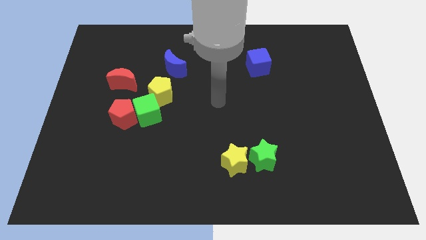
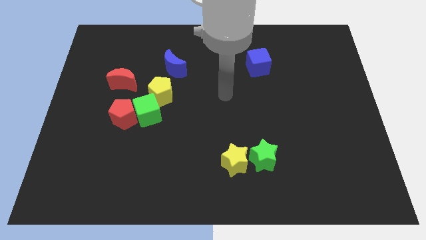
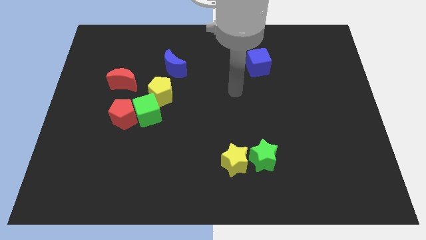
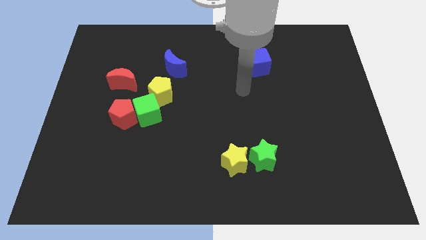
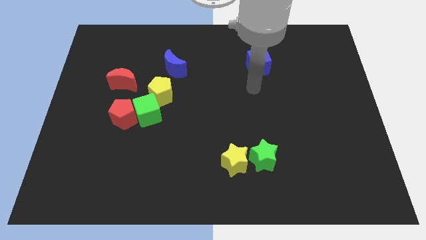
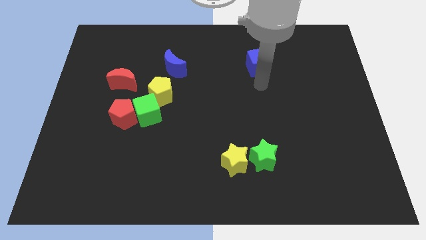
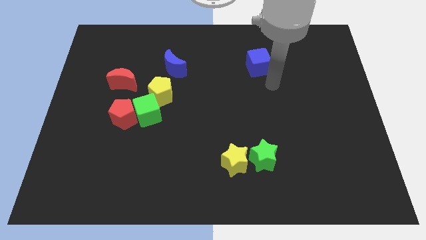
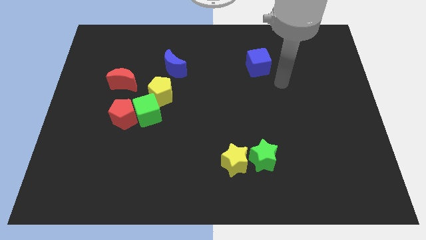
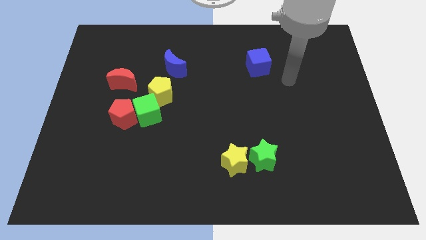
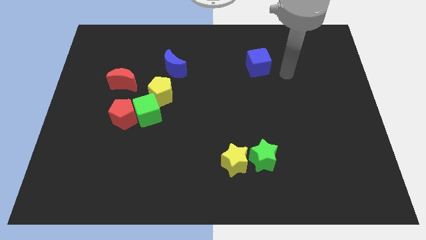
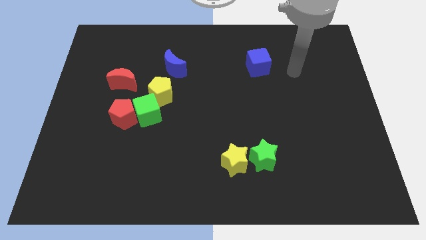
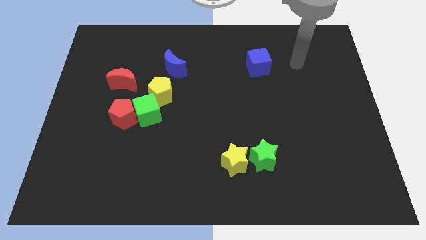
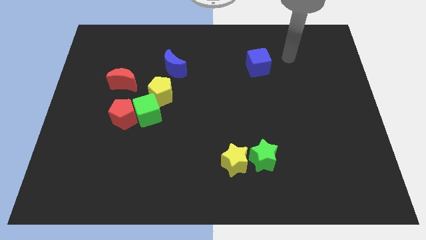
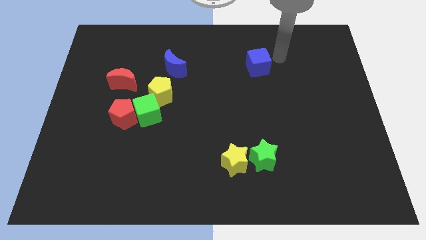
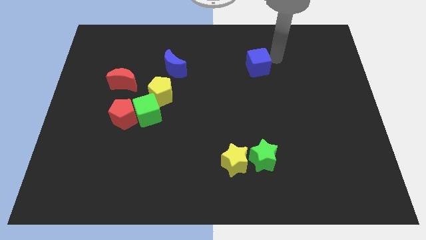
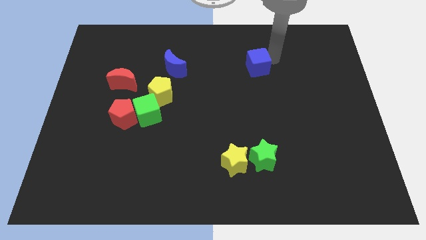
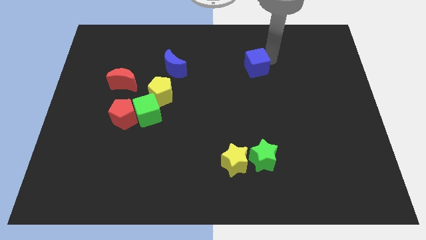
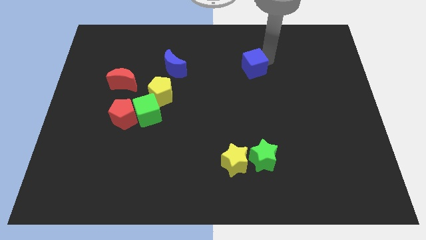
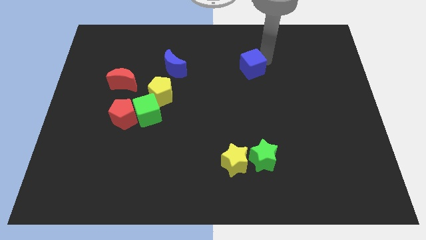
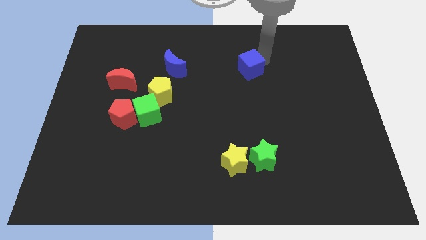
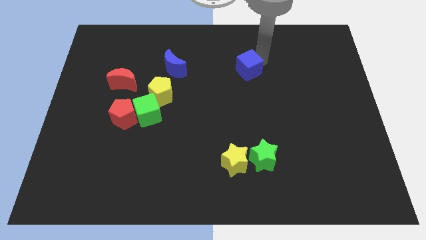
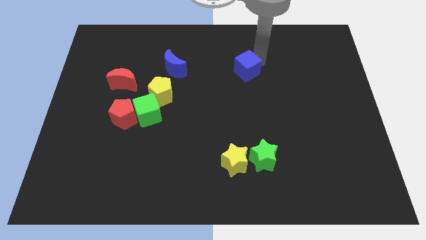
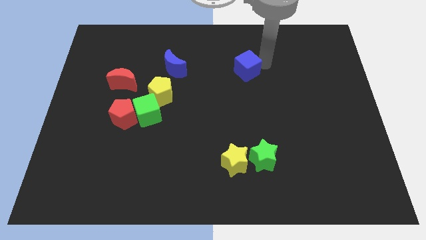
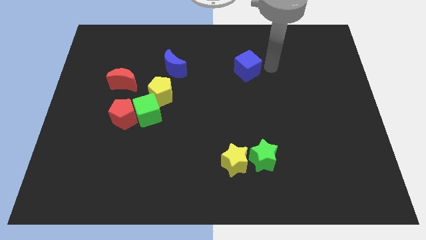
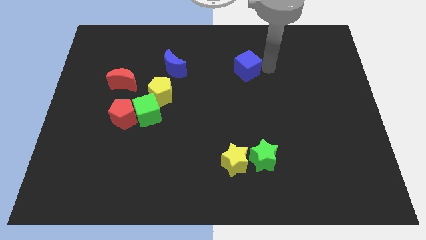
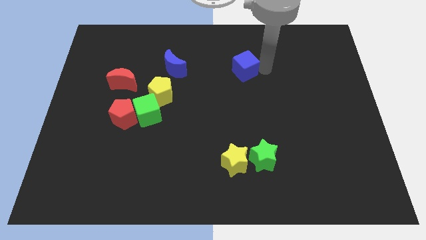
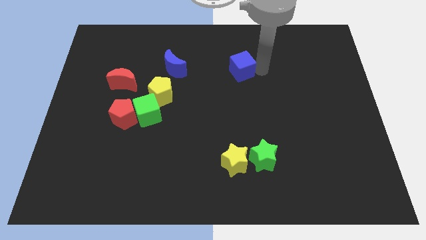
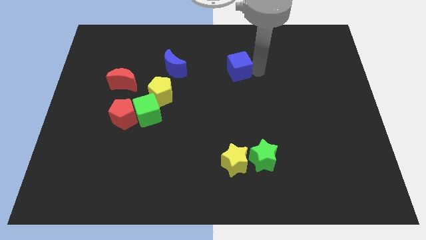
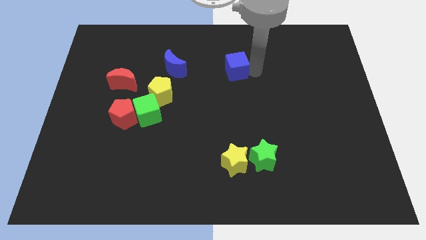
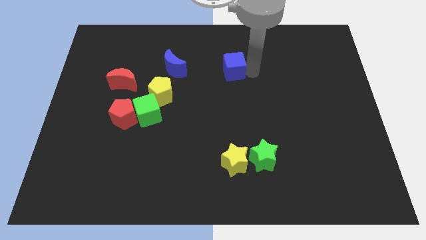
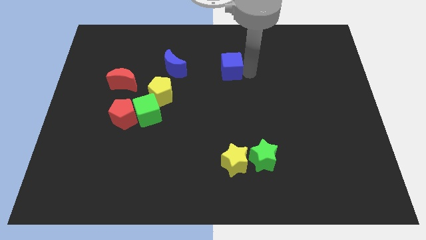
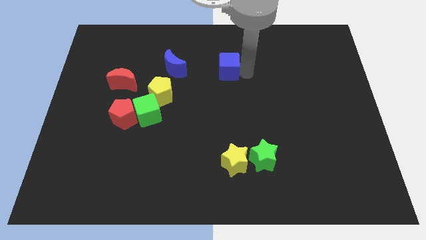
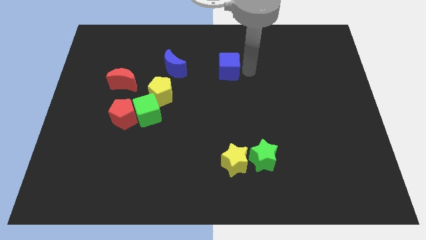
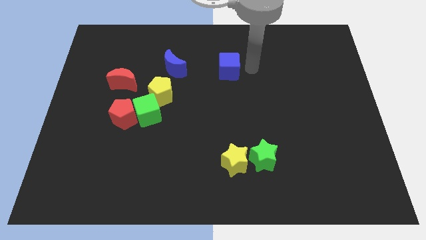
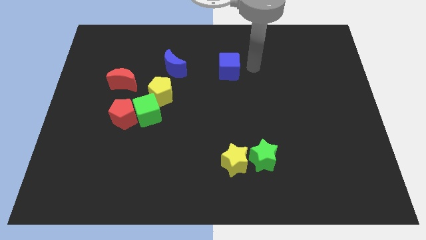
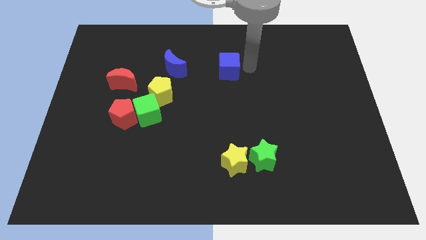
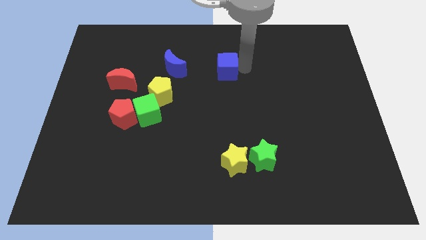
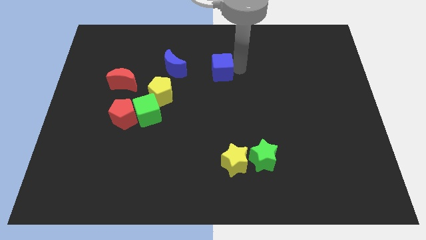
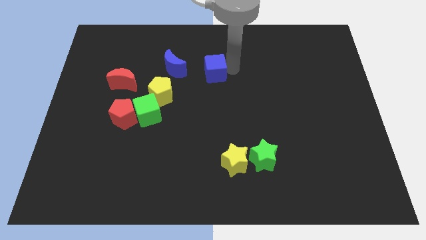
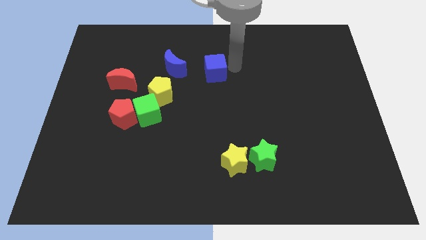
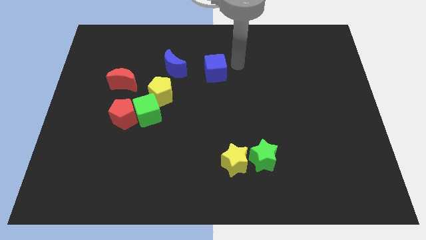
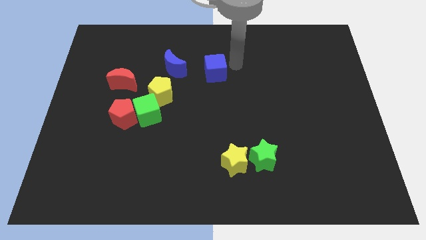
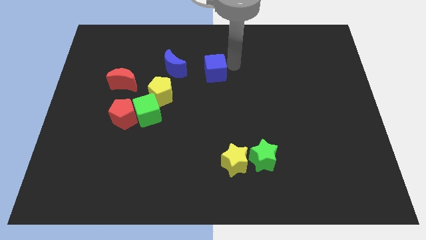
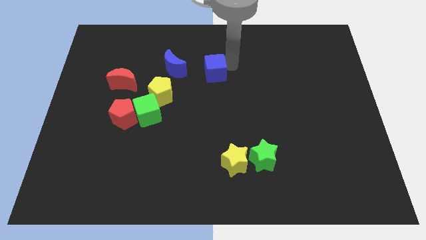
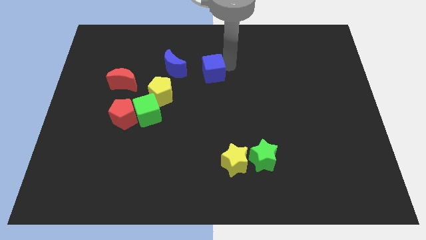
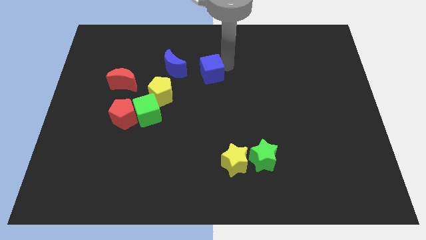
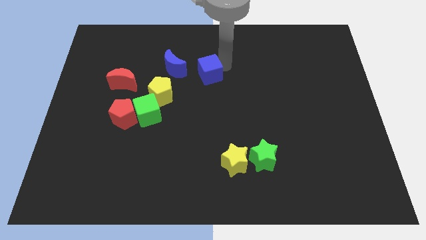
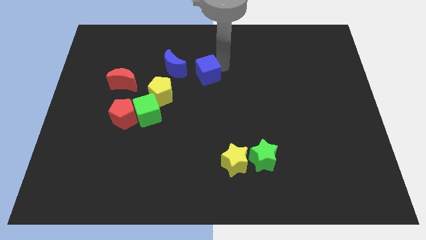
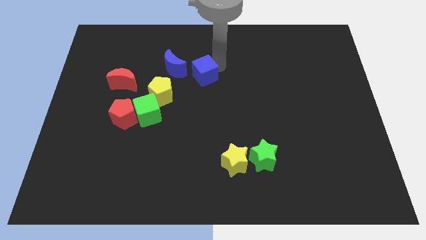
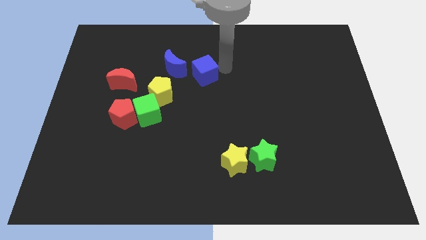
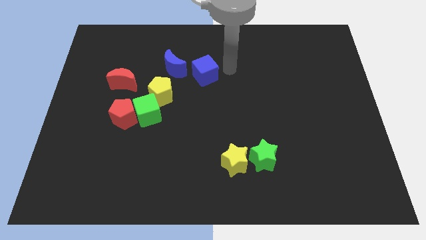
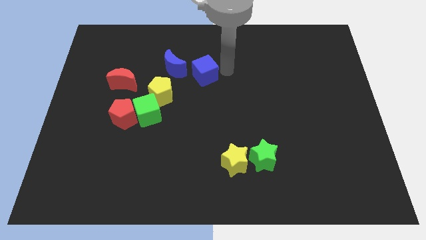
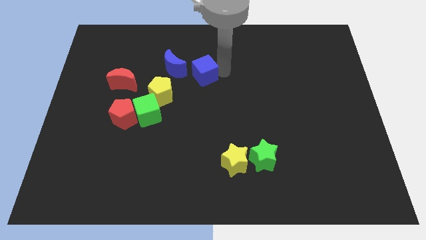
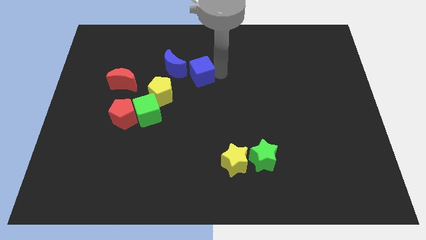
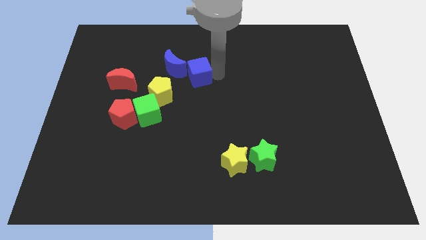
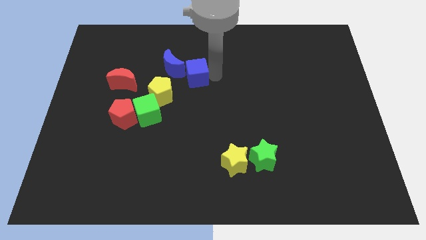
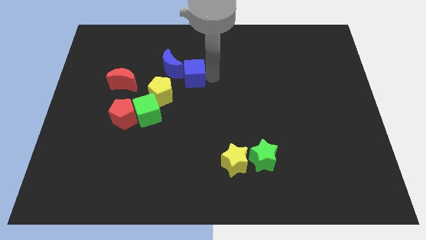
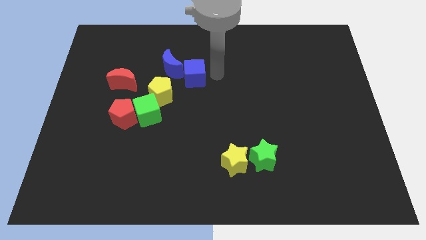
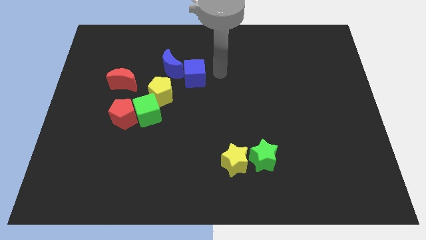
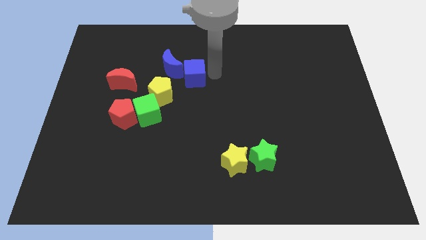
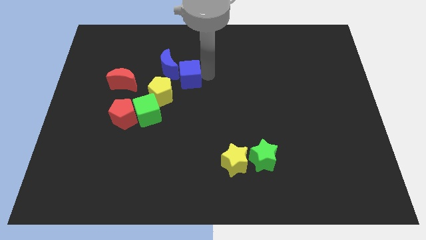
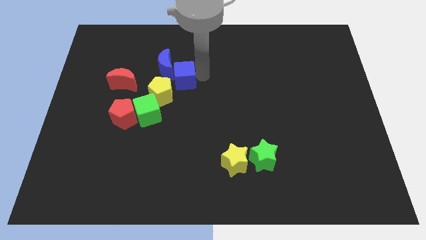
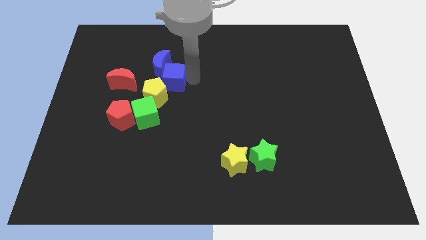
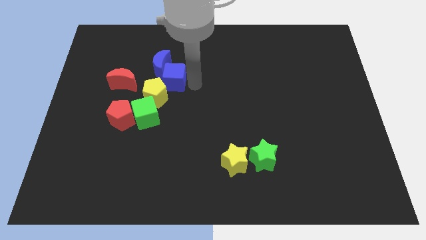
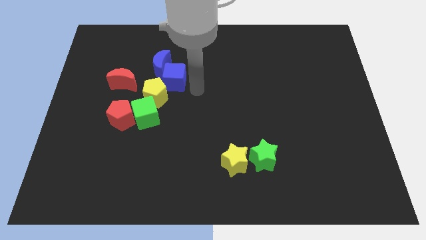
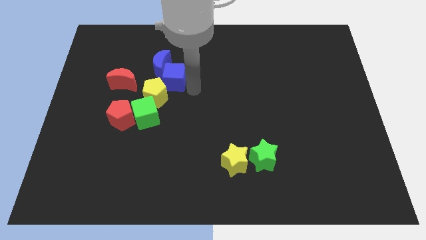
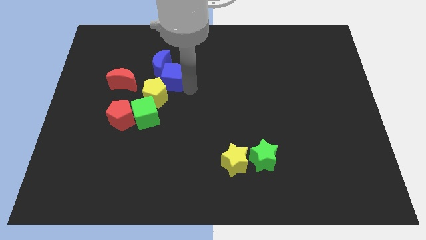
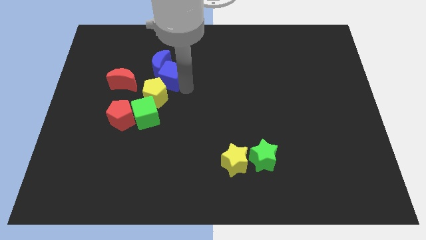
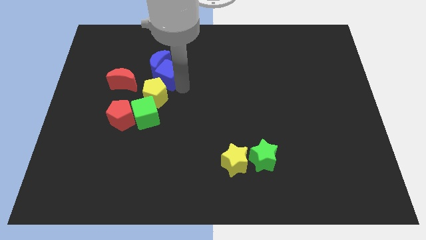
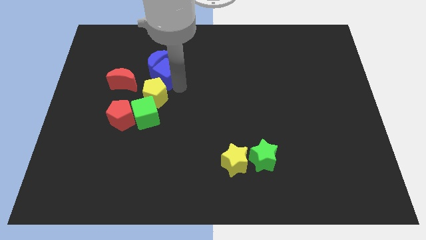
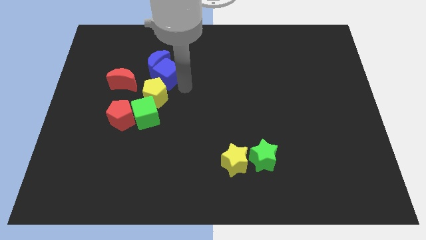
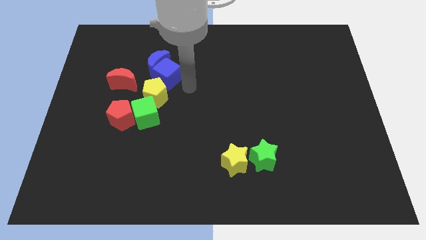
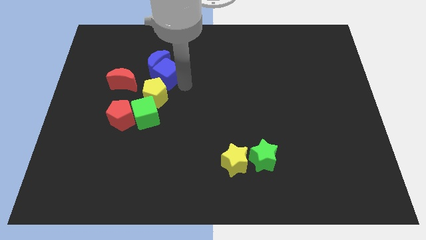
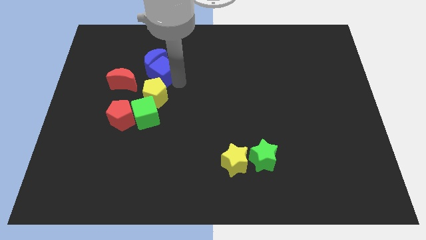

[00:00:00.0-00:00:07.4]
put the blue cube diagonally up and to the right of the red moon
